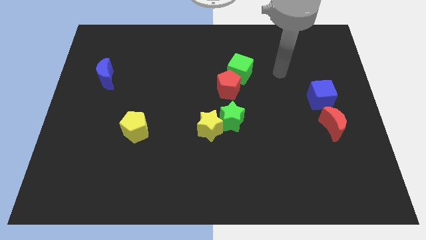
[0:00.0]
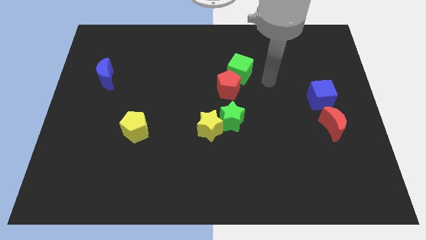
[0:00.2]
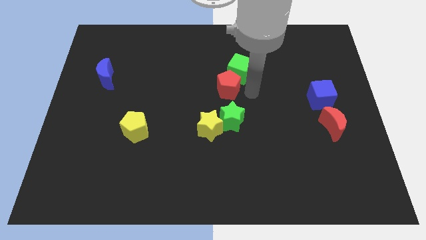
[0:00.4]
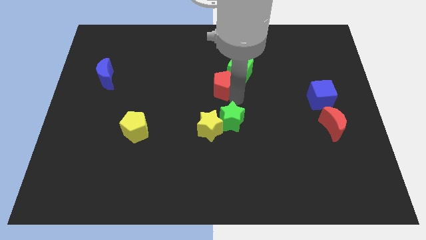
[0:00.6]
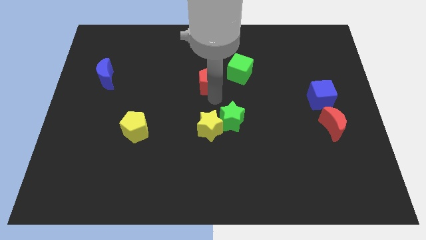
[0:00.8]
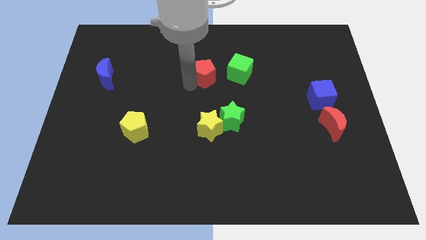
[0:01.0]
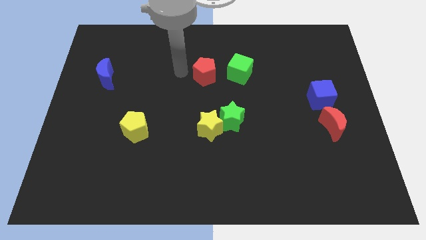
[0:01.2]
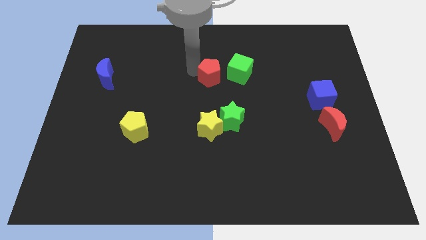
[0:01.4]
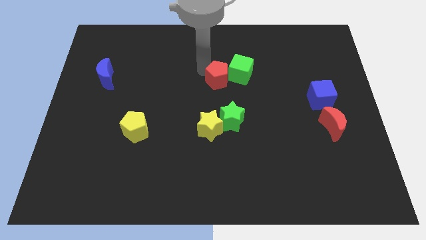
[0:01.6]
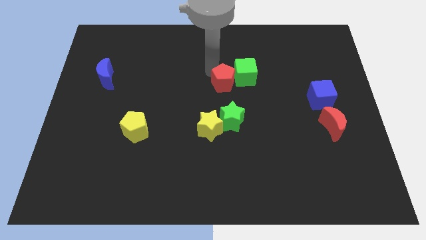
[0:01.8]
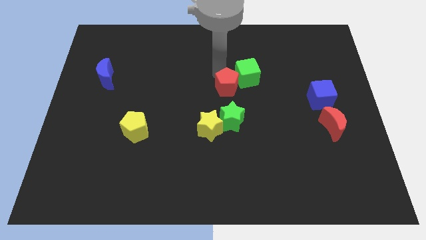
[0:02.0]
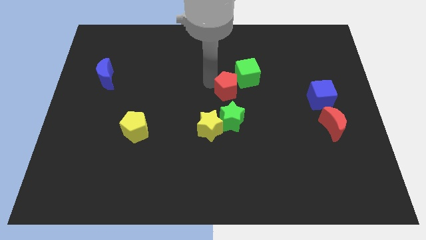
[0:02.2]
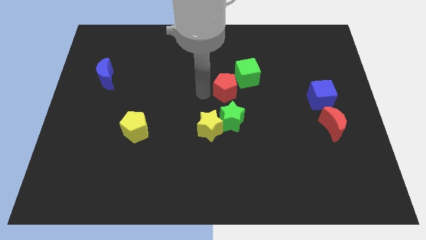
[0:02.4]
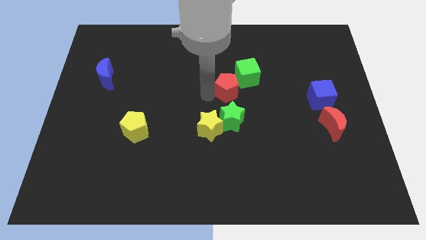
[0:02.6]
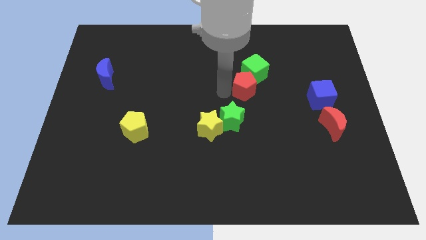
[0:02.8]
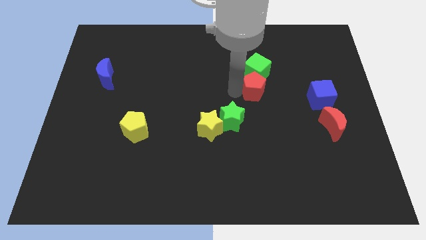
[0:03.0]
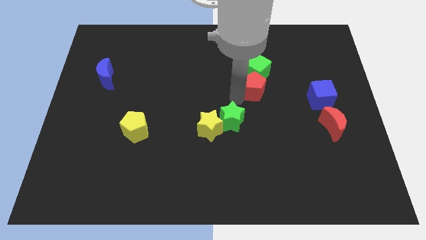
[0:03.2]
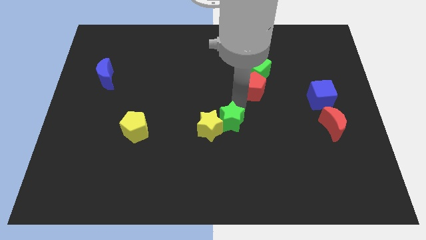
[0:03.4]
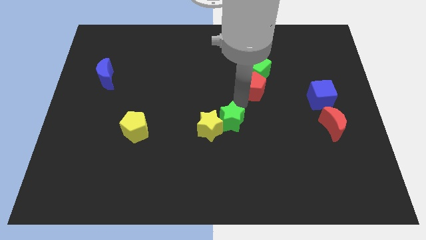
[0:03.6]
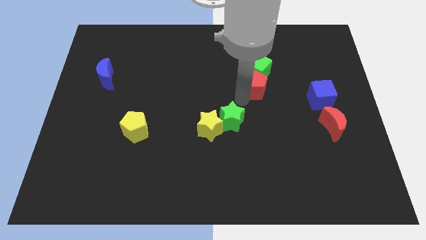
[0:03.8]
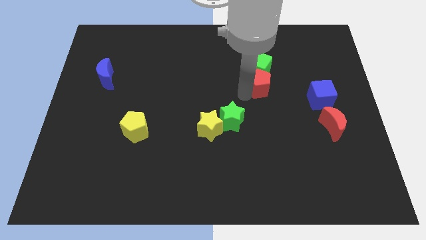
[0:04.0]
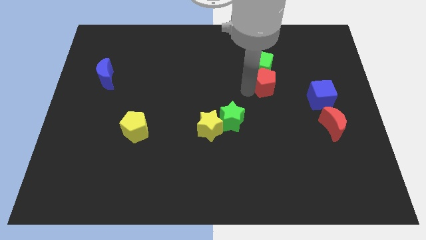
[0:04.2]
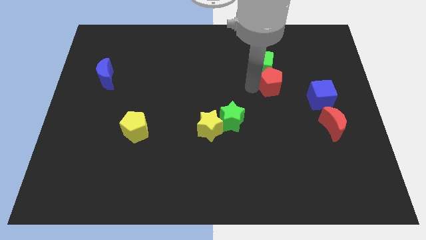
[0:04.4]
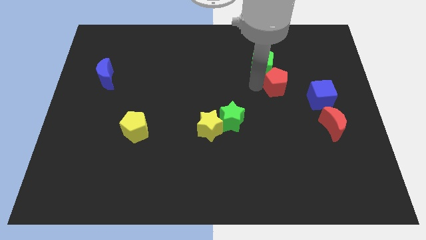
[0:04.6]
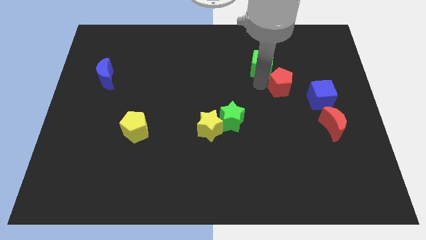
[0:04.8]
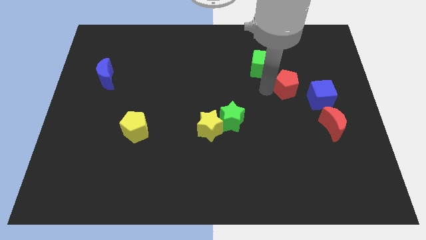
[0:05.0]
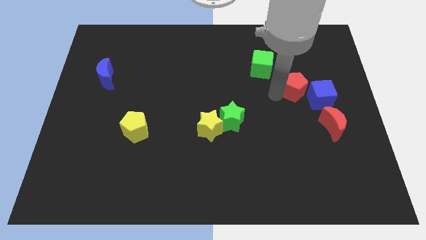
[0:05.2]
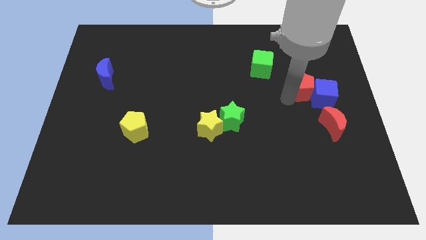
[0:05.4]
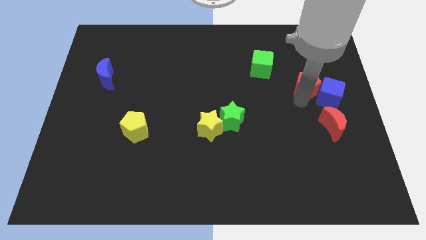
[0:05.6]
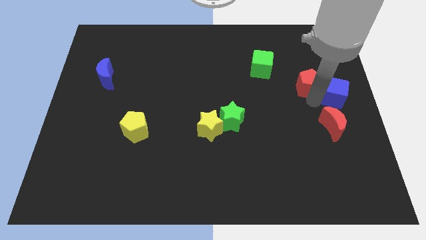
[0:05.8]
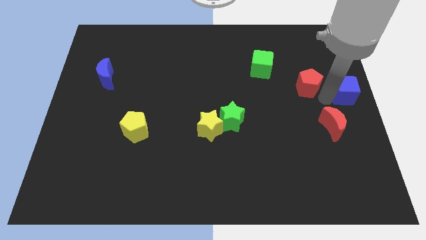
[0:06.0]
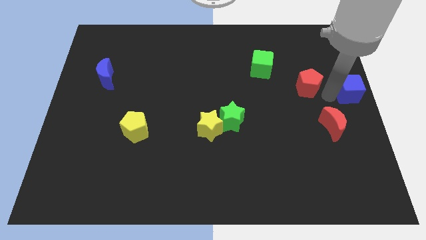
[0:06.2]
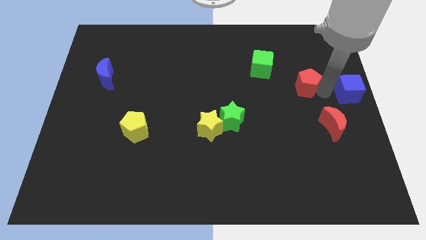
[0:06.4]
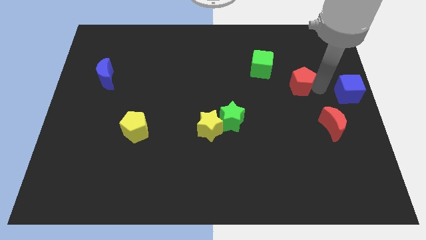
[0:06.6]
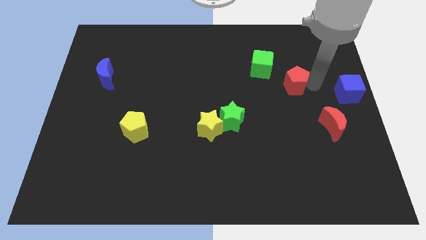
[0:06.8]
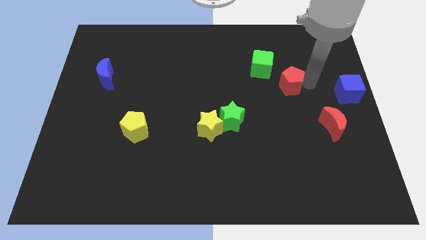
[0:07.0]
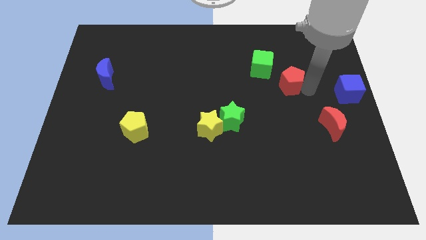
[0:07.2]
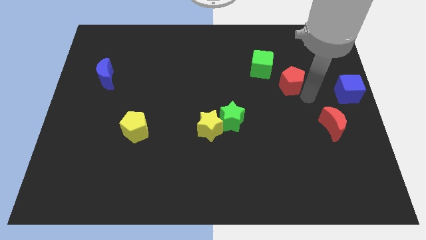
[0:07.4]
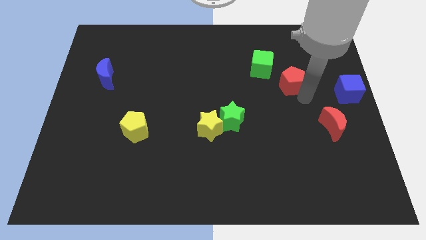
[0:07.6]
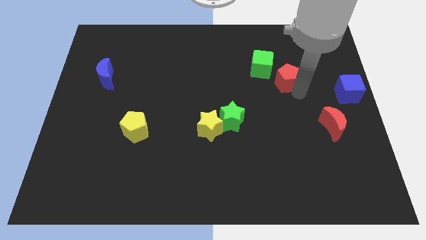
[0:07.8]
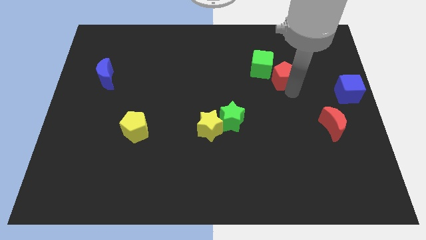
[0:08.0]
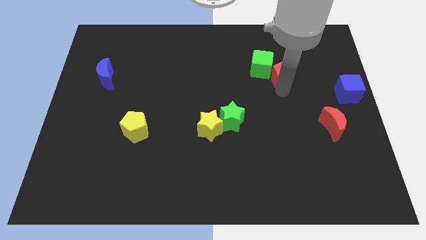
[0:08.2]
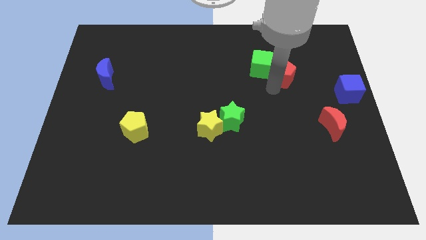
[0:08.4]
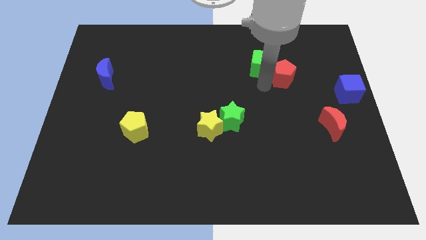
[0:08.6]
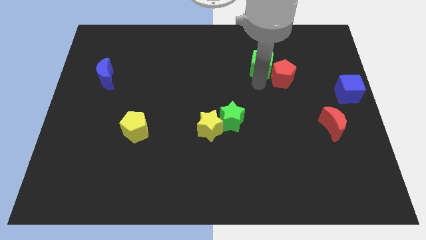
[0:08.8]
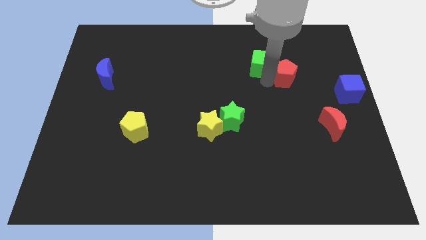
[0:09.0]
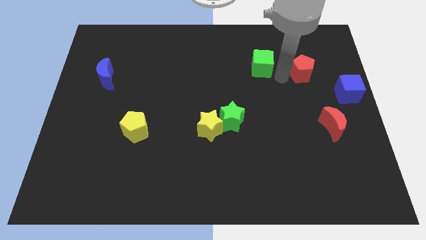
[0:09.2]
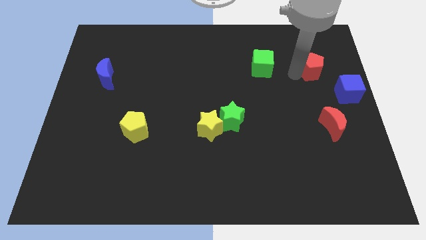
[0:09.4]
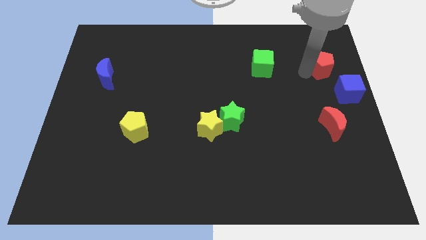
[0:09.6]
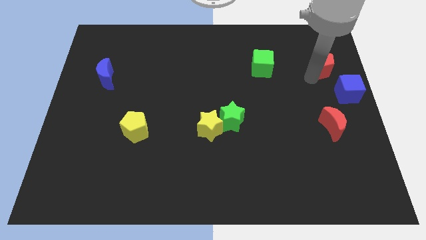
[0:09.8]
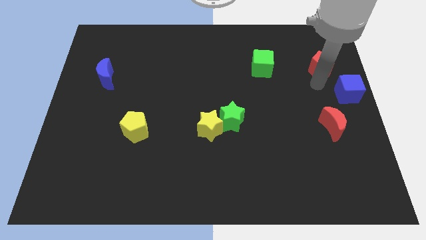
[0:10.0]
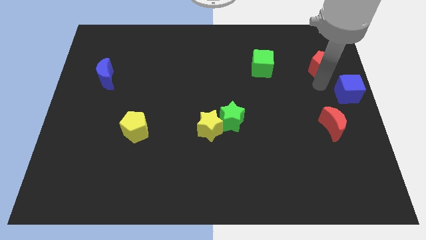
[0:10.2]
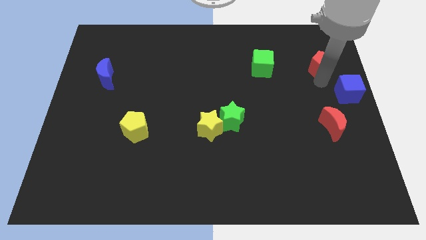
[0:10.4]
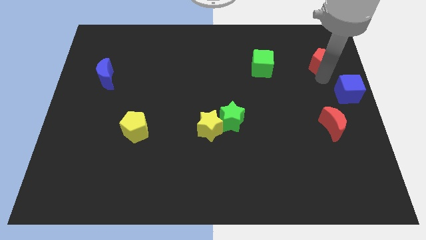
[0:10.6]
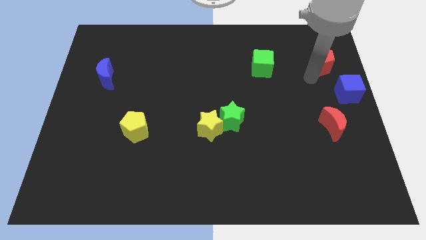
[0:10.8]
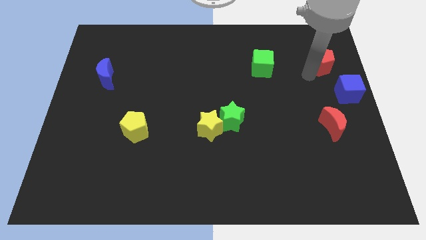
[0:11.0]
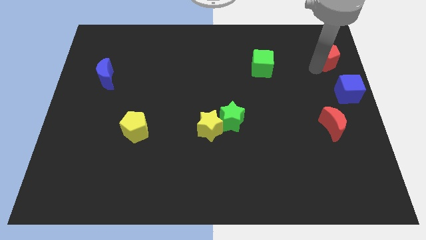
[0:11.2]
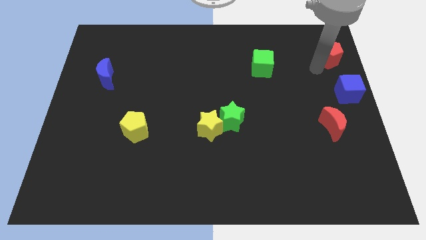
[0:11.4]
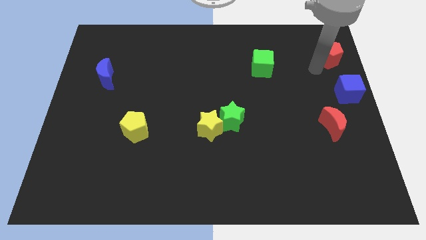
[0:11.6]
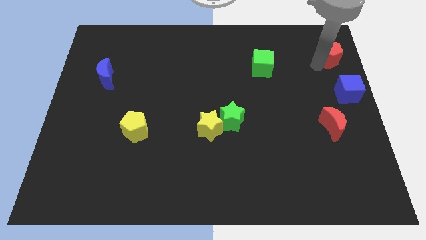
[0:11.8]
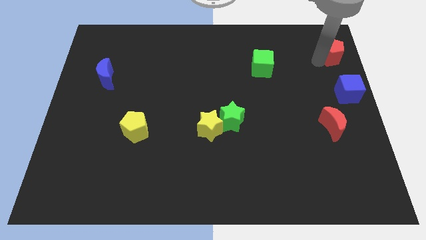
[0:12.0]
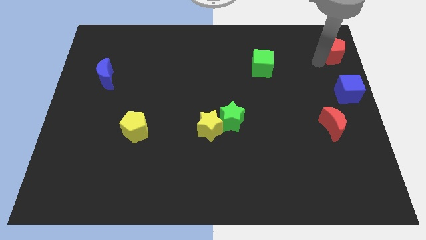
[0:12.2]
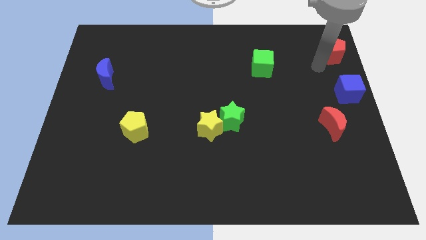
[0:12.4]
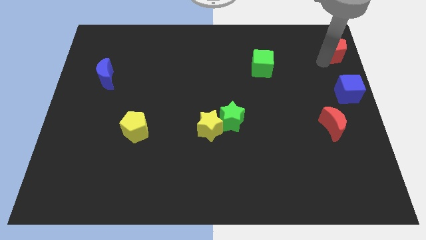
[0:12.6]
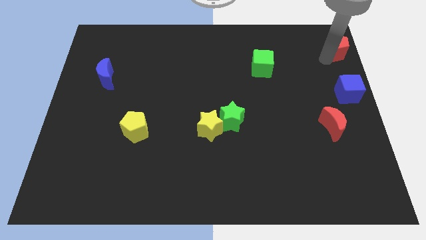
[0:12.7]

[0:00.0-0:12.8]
move the red pentagon to the top right of the board
